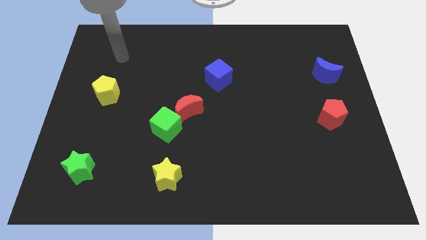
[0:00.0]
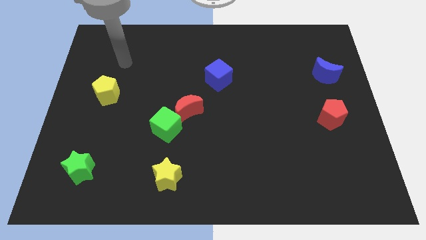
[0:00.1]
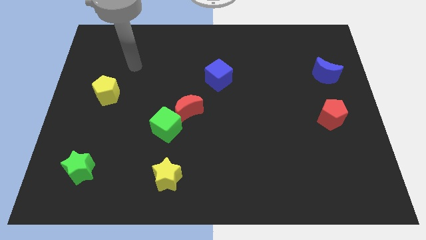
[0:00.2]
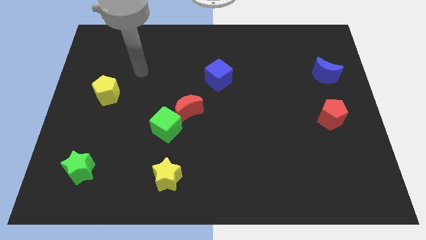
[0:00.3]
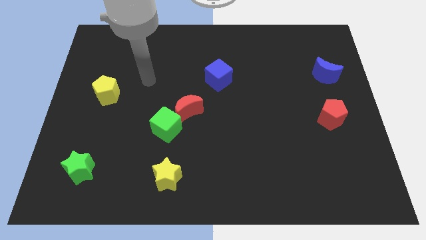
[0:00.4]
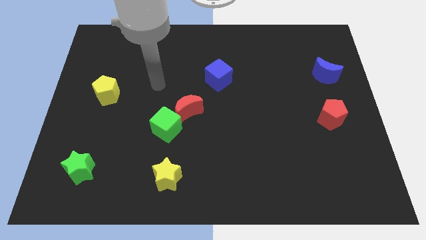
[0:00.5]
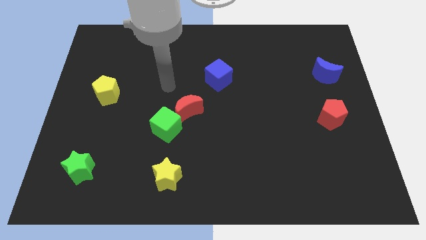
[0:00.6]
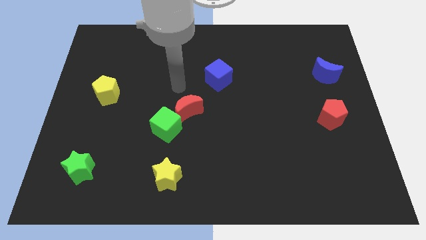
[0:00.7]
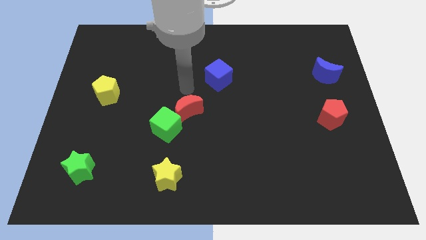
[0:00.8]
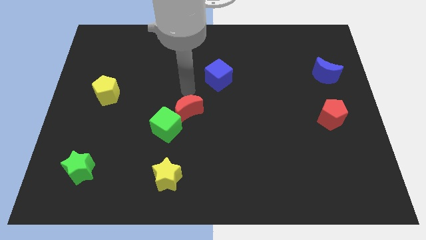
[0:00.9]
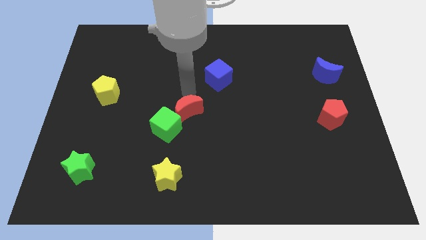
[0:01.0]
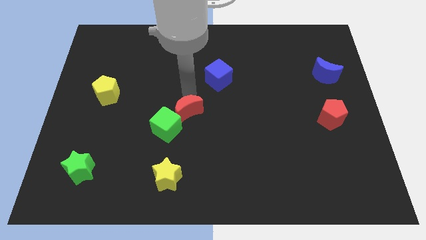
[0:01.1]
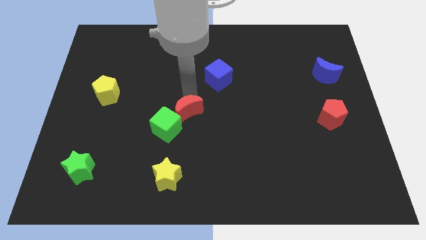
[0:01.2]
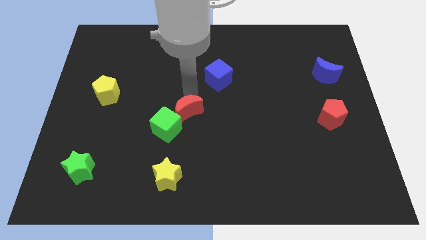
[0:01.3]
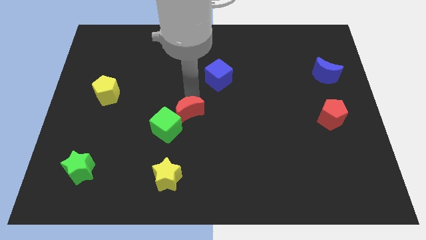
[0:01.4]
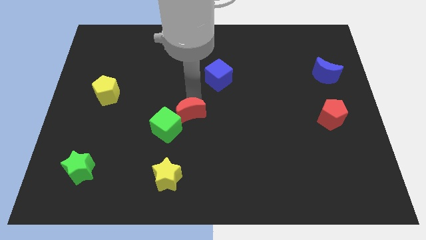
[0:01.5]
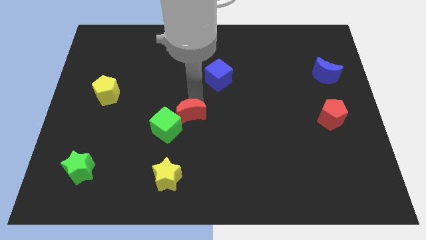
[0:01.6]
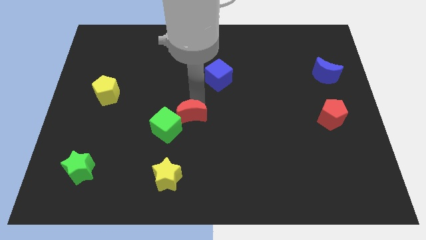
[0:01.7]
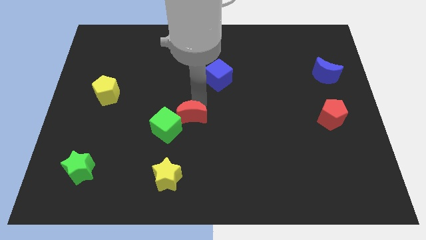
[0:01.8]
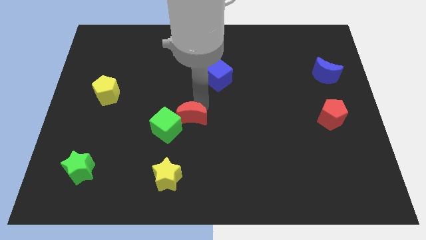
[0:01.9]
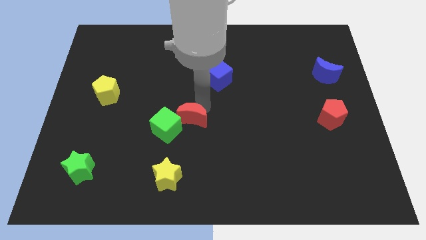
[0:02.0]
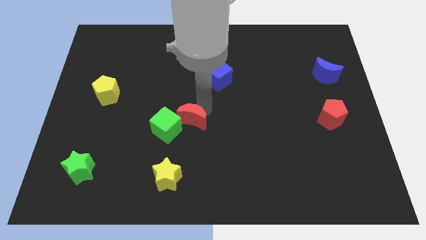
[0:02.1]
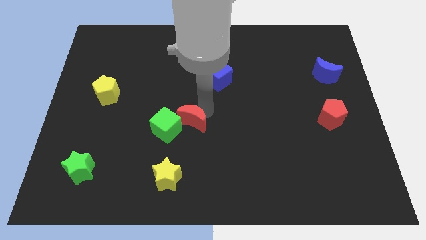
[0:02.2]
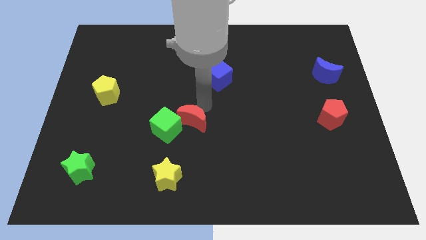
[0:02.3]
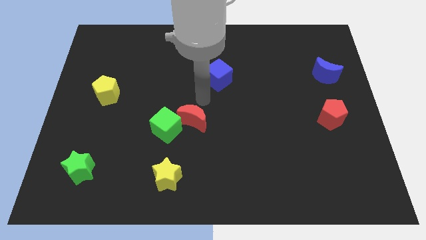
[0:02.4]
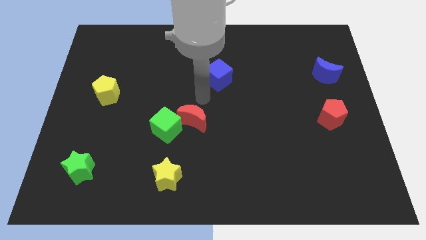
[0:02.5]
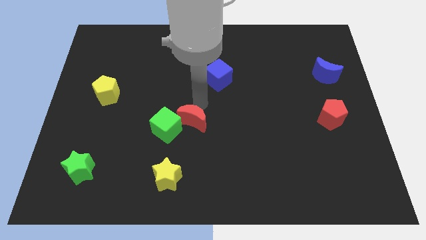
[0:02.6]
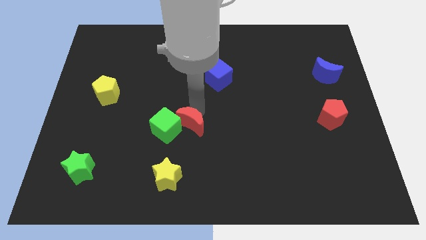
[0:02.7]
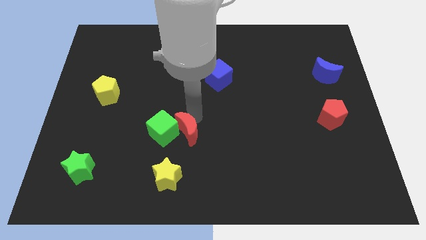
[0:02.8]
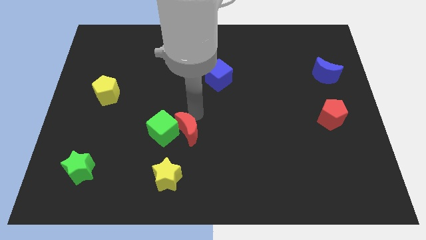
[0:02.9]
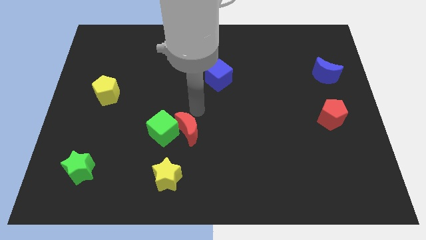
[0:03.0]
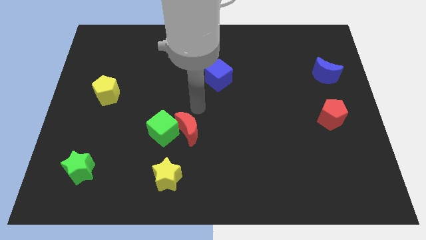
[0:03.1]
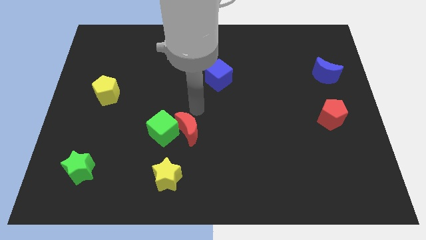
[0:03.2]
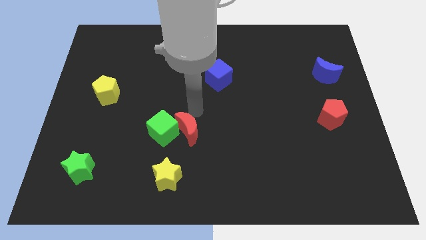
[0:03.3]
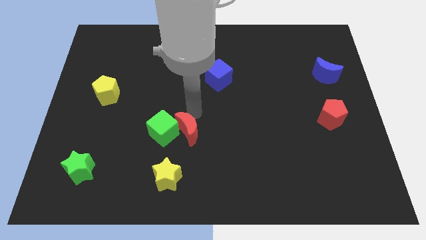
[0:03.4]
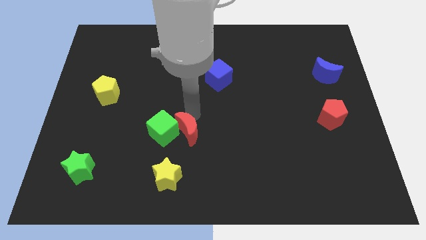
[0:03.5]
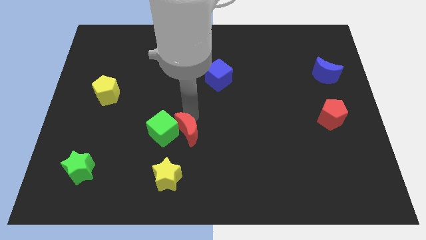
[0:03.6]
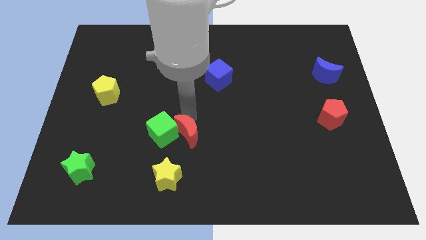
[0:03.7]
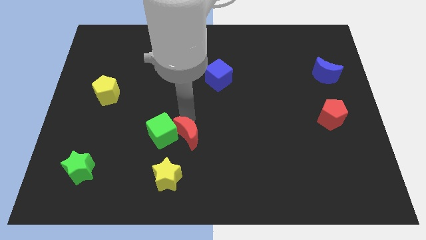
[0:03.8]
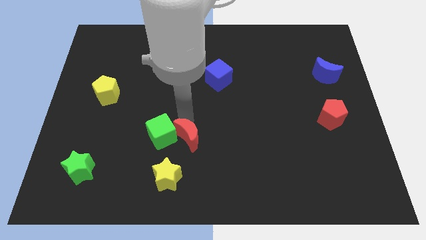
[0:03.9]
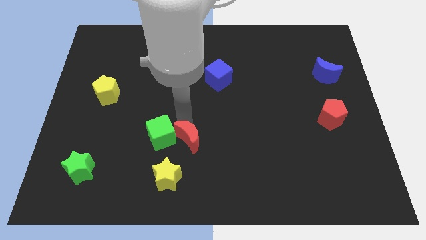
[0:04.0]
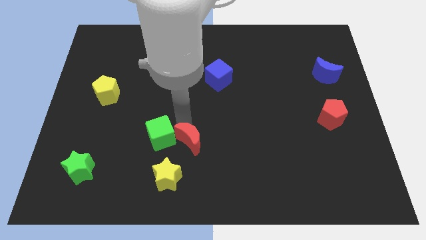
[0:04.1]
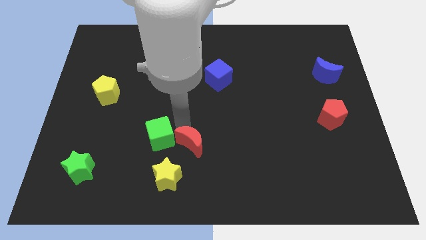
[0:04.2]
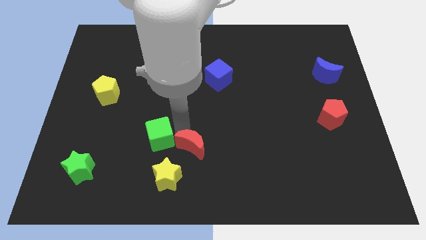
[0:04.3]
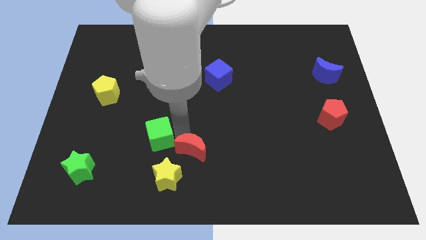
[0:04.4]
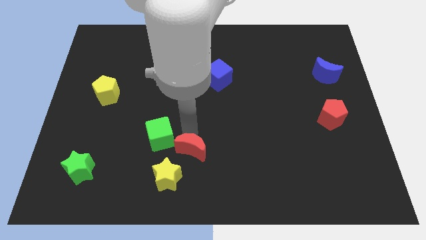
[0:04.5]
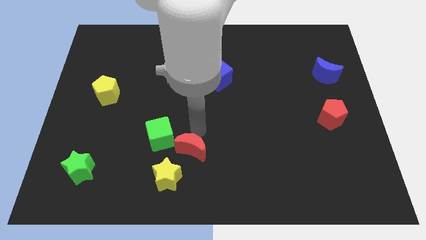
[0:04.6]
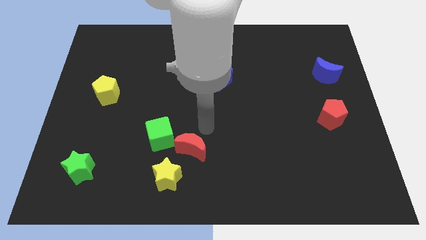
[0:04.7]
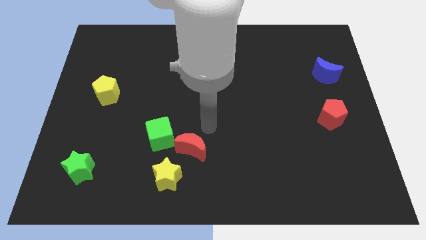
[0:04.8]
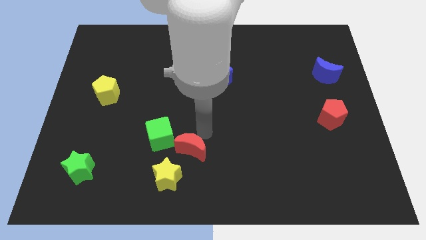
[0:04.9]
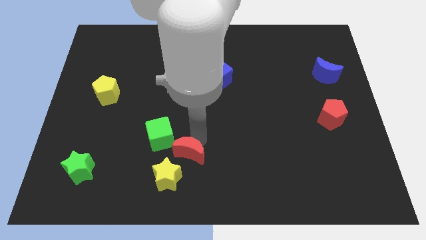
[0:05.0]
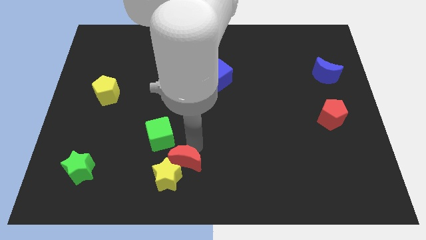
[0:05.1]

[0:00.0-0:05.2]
put the red moon towards the yellow star

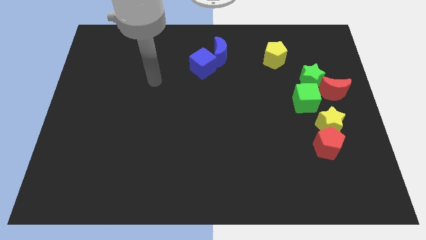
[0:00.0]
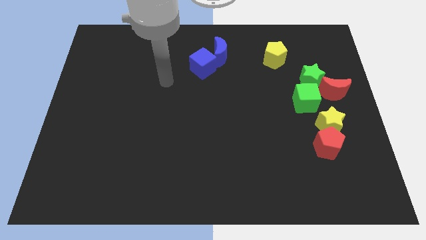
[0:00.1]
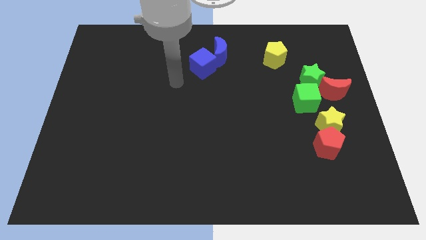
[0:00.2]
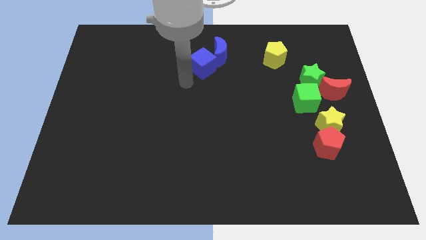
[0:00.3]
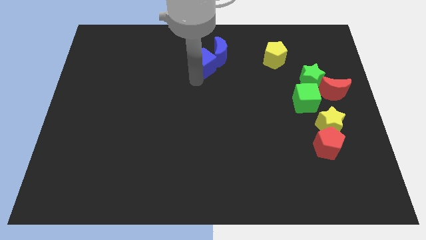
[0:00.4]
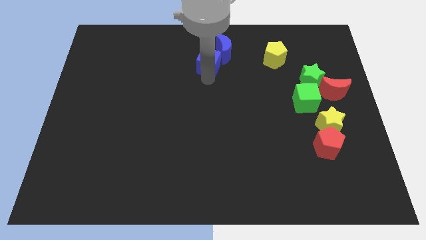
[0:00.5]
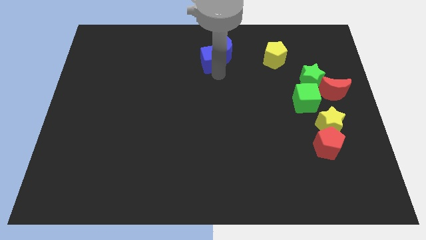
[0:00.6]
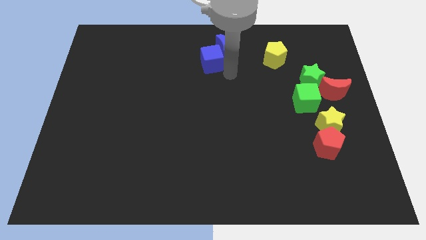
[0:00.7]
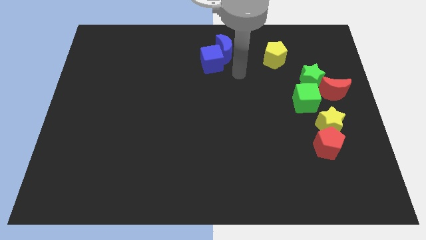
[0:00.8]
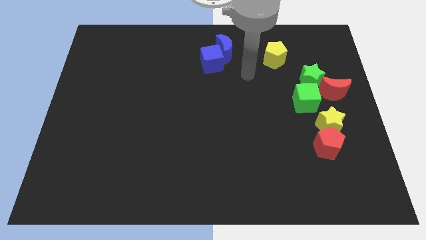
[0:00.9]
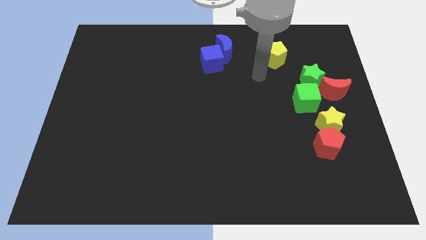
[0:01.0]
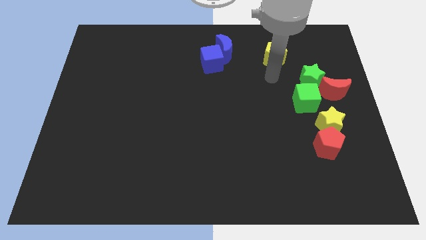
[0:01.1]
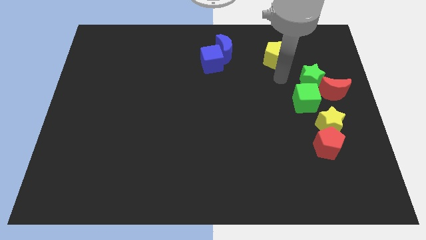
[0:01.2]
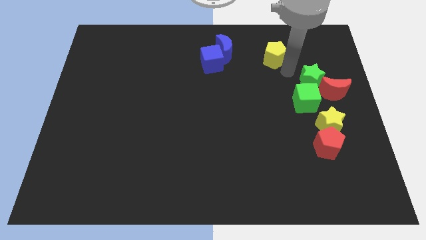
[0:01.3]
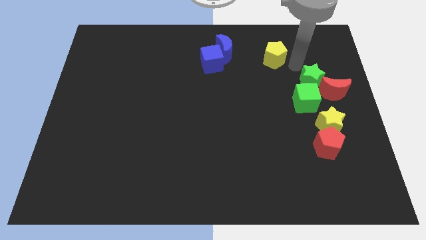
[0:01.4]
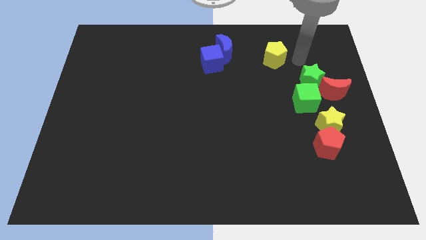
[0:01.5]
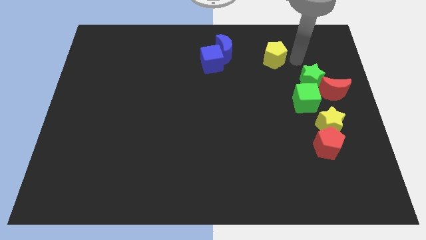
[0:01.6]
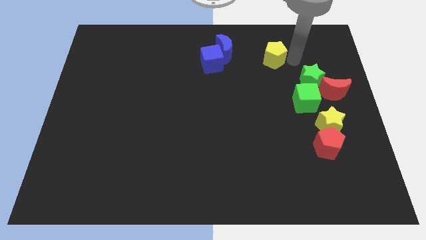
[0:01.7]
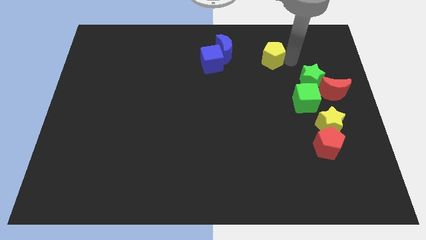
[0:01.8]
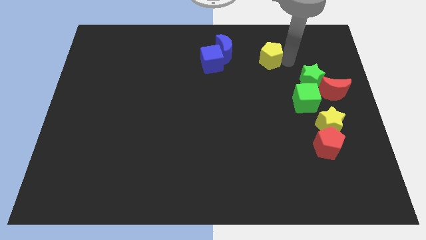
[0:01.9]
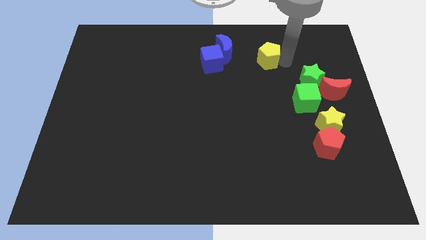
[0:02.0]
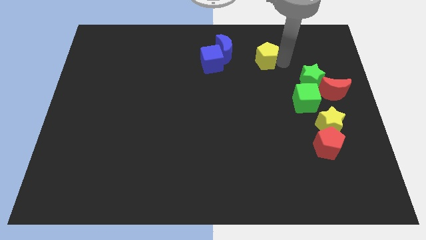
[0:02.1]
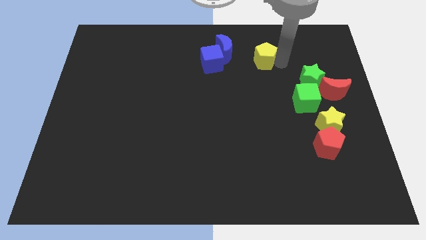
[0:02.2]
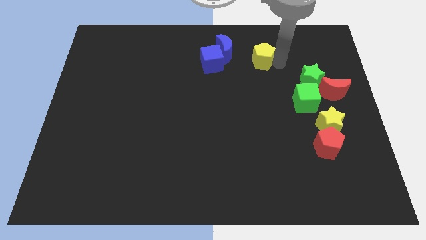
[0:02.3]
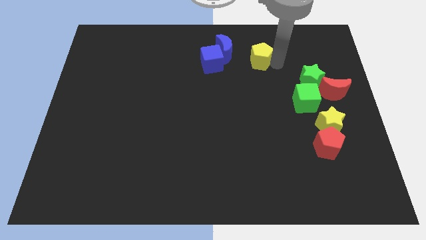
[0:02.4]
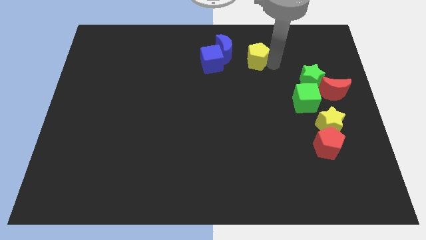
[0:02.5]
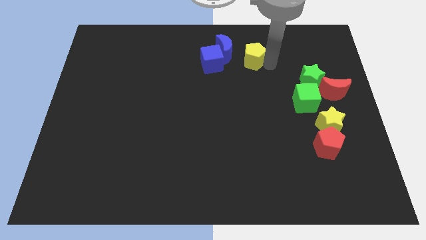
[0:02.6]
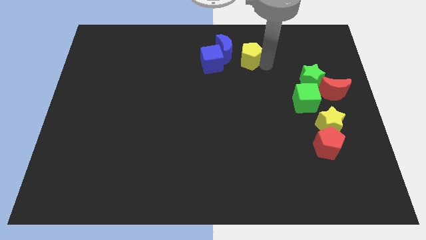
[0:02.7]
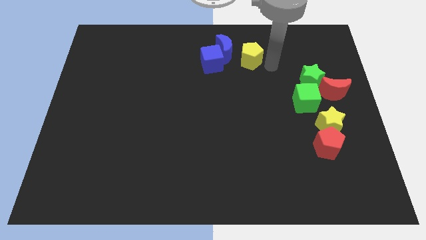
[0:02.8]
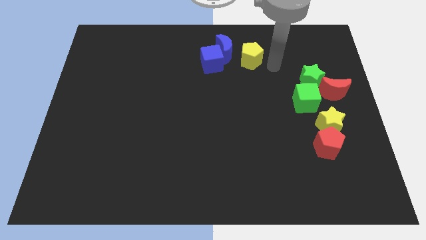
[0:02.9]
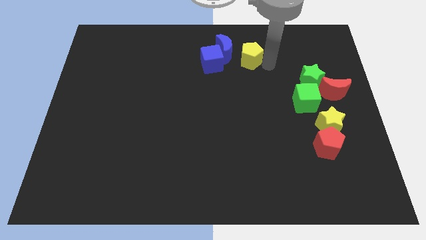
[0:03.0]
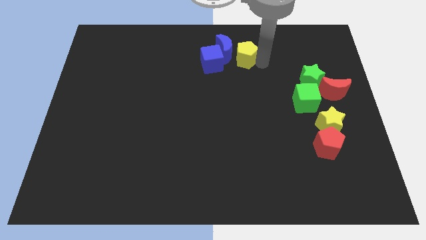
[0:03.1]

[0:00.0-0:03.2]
push the yellow pentagon close to the blue moon
